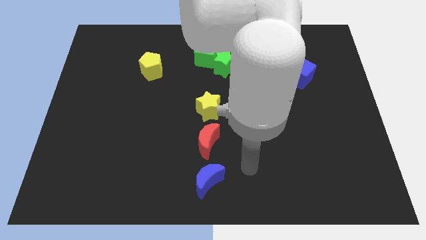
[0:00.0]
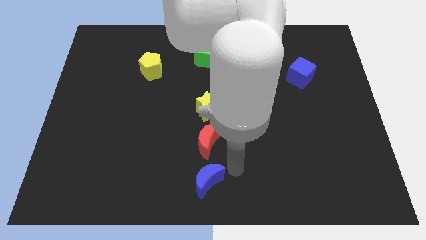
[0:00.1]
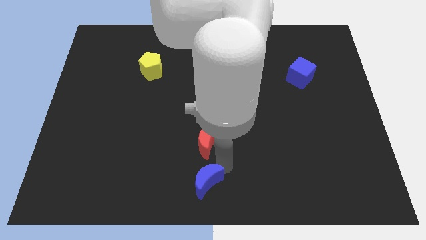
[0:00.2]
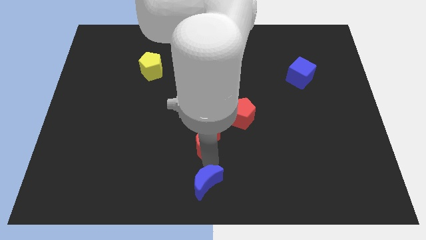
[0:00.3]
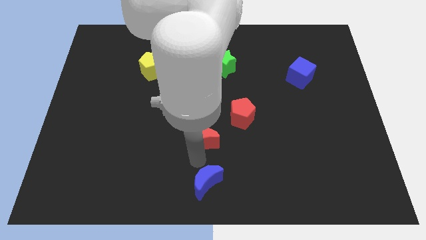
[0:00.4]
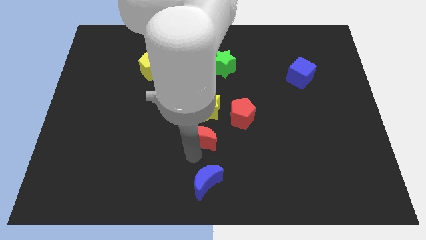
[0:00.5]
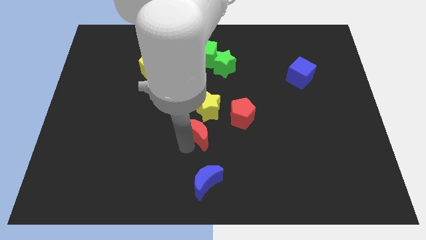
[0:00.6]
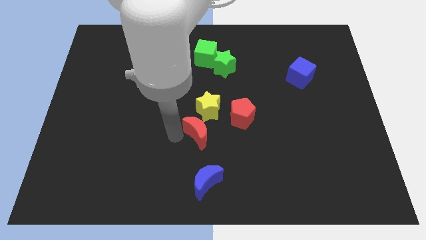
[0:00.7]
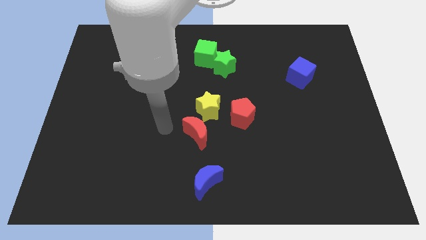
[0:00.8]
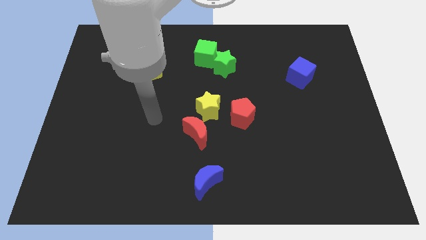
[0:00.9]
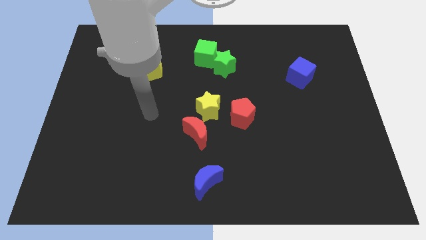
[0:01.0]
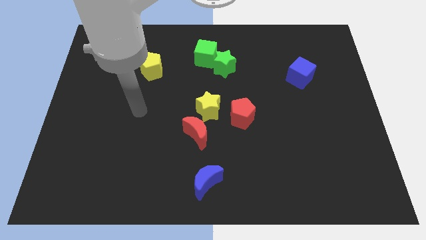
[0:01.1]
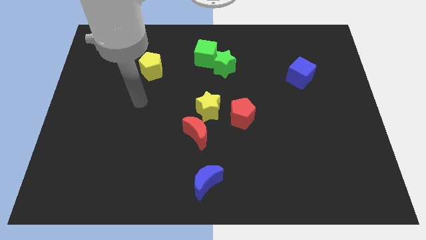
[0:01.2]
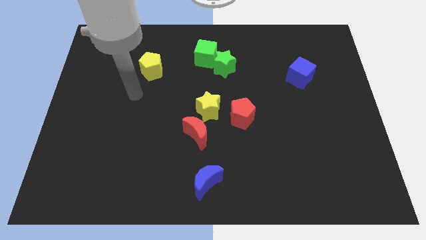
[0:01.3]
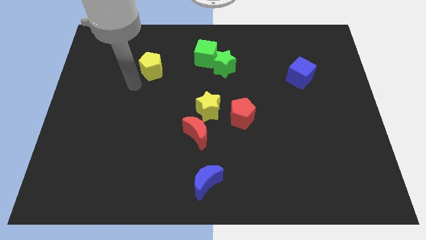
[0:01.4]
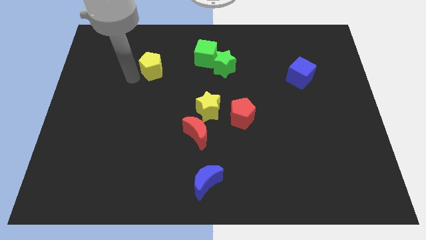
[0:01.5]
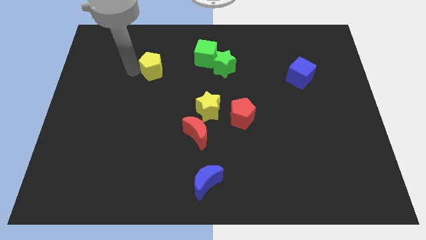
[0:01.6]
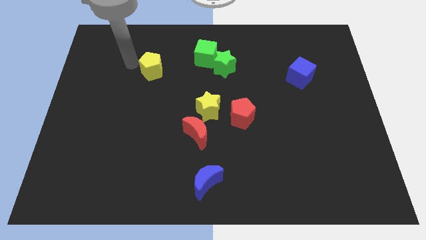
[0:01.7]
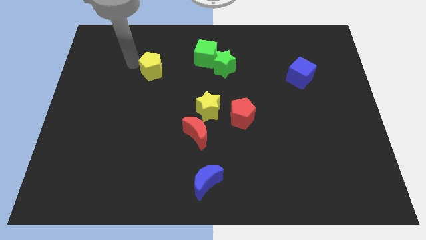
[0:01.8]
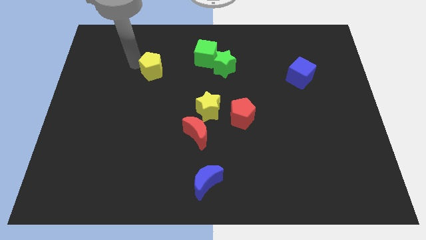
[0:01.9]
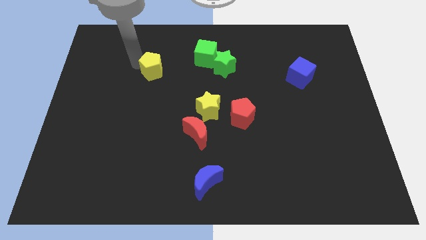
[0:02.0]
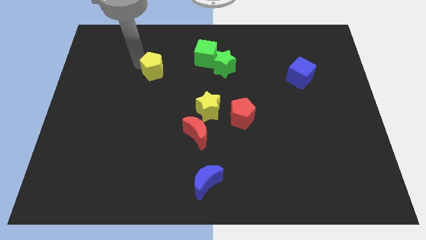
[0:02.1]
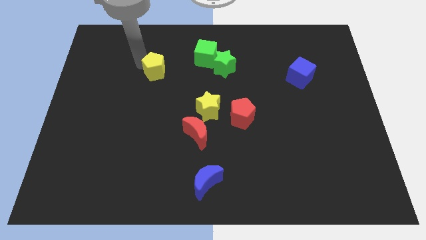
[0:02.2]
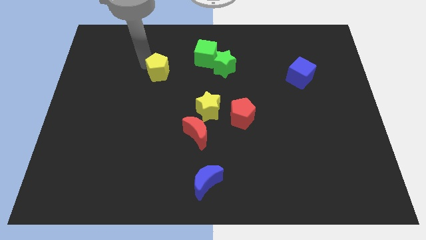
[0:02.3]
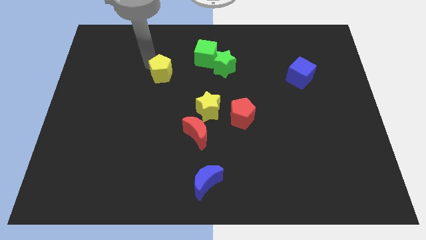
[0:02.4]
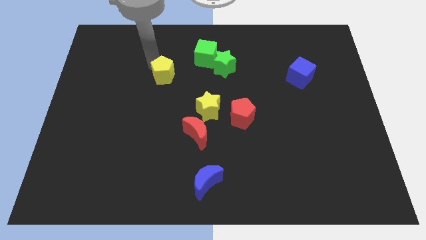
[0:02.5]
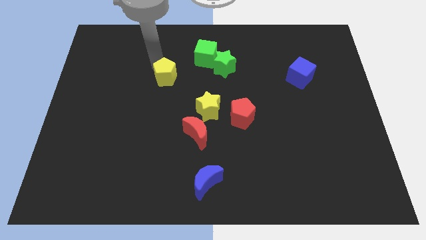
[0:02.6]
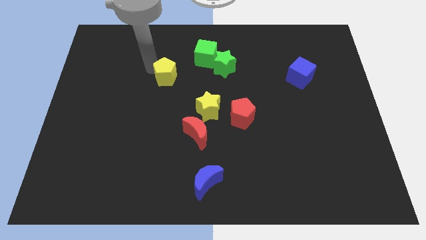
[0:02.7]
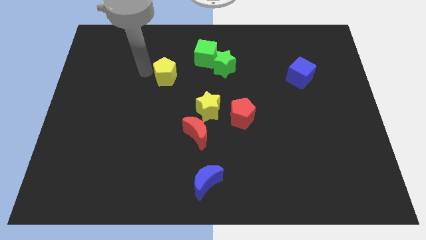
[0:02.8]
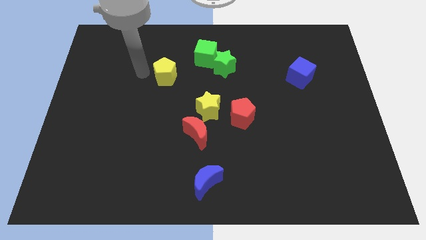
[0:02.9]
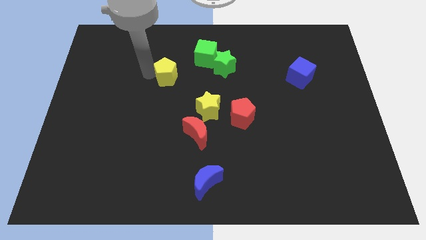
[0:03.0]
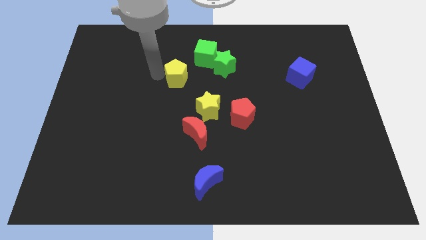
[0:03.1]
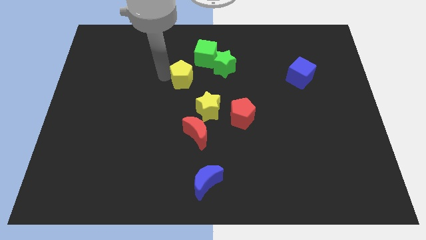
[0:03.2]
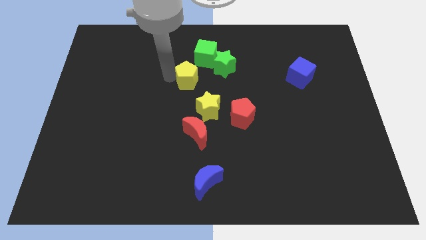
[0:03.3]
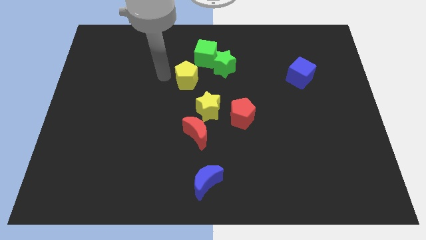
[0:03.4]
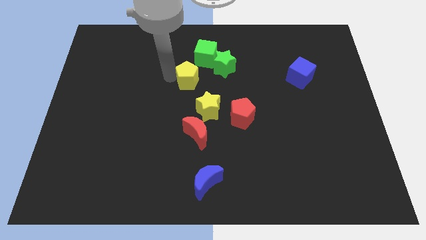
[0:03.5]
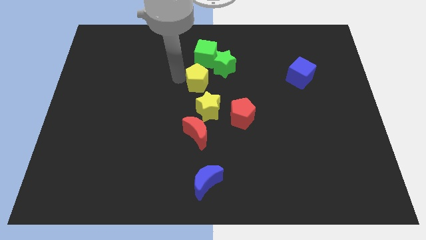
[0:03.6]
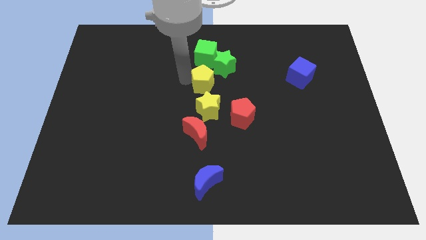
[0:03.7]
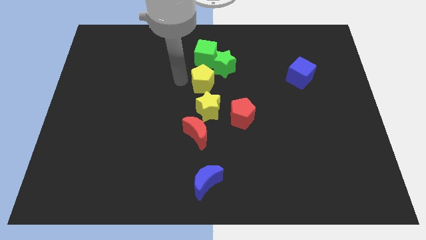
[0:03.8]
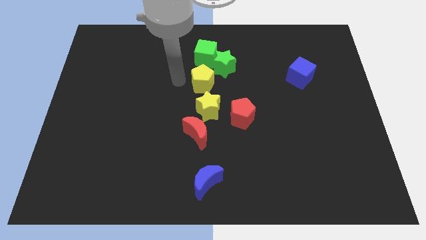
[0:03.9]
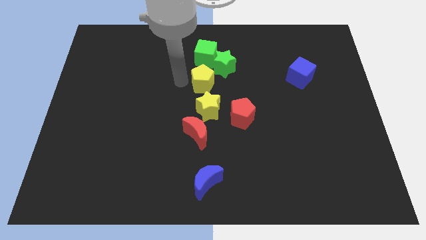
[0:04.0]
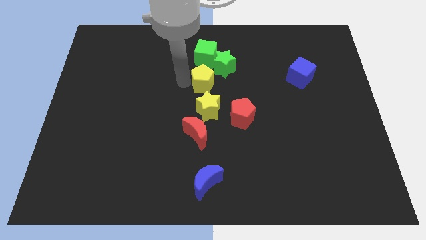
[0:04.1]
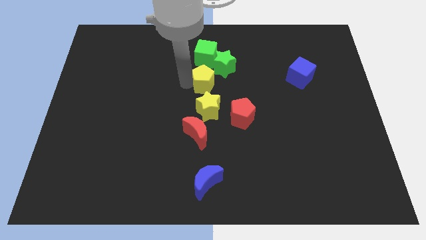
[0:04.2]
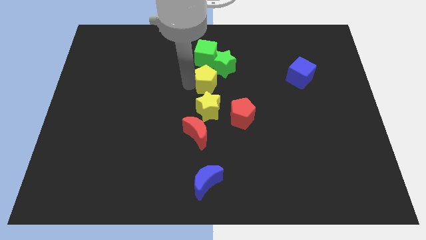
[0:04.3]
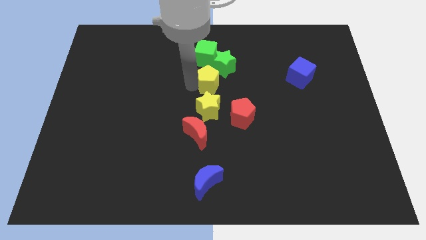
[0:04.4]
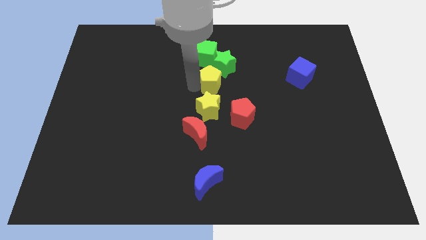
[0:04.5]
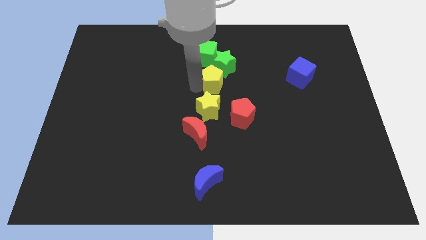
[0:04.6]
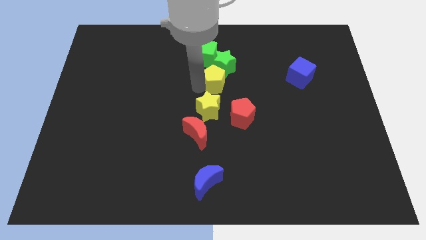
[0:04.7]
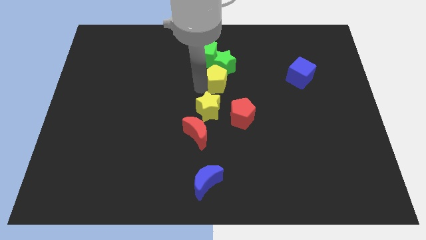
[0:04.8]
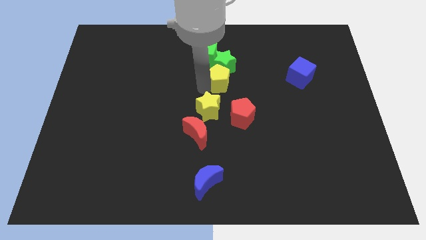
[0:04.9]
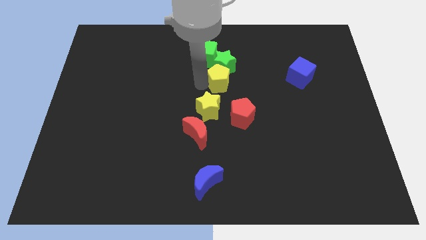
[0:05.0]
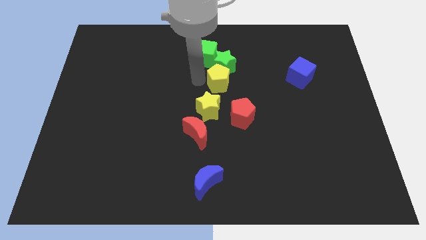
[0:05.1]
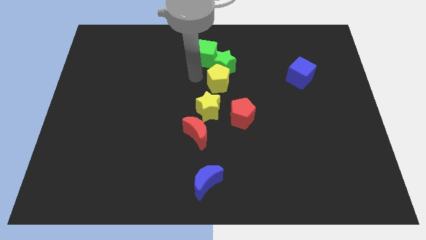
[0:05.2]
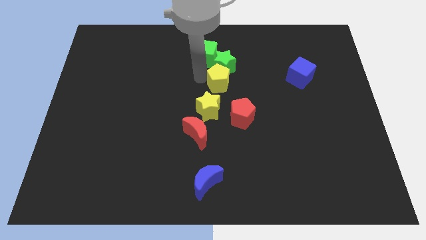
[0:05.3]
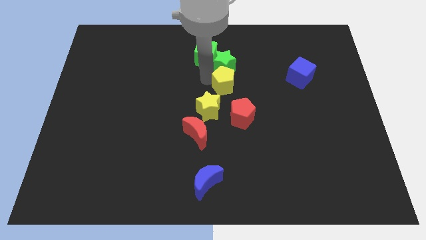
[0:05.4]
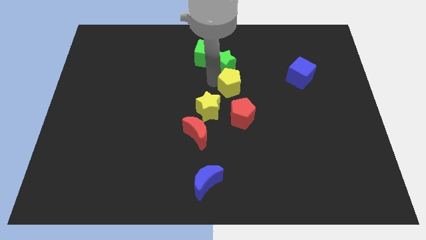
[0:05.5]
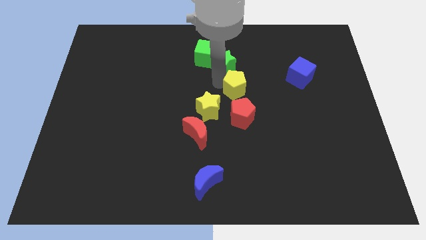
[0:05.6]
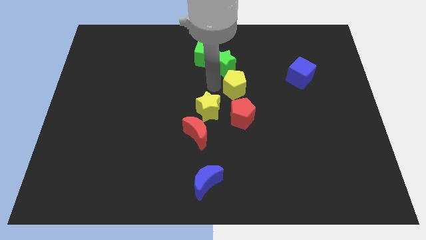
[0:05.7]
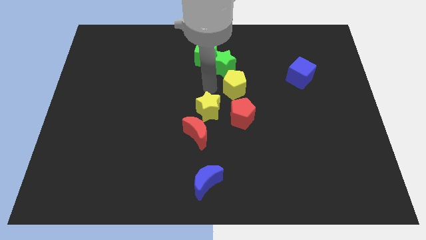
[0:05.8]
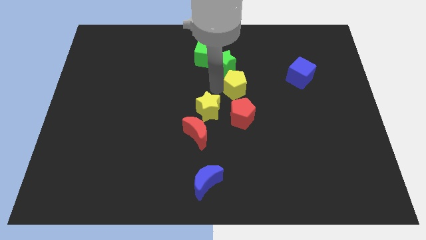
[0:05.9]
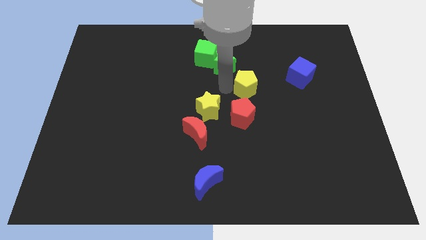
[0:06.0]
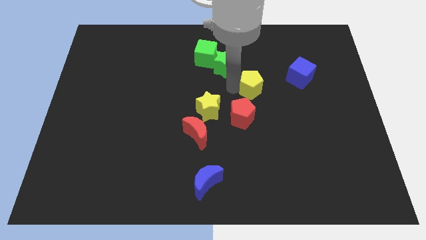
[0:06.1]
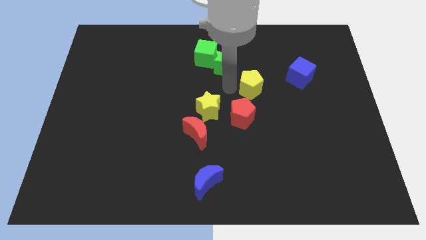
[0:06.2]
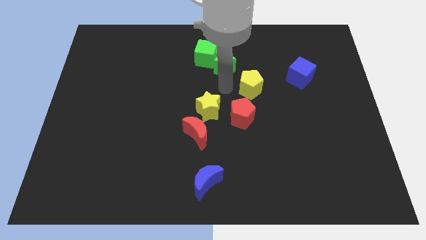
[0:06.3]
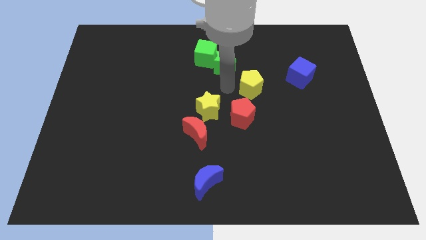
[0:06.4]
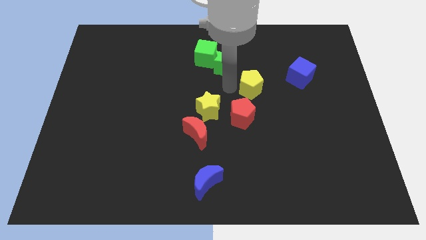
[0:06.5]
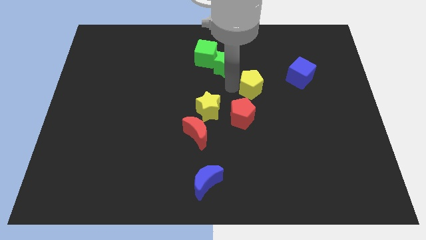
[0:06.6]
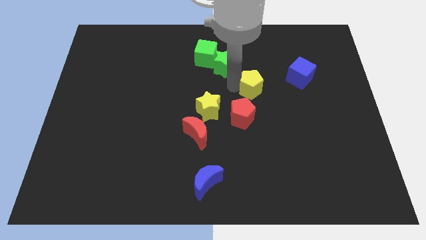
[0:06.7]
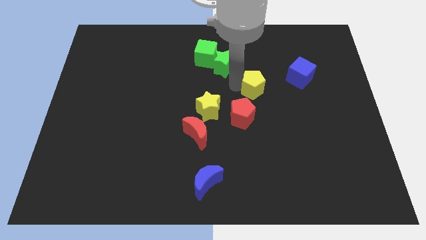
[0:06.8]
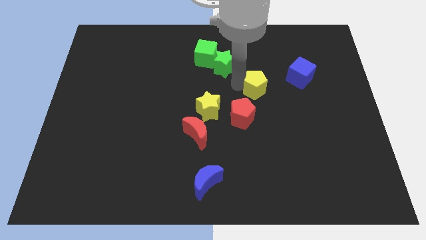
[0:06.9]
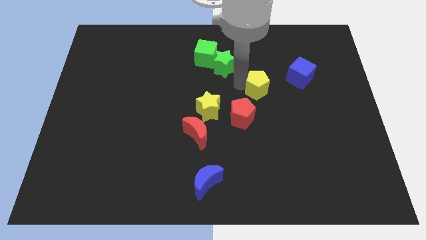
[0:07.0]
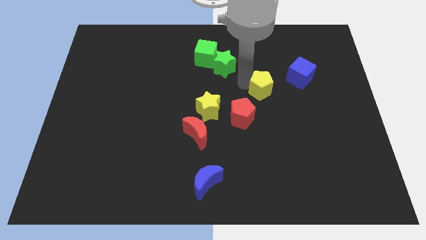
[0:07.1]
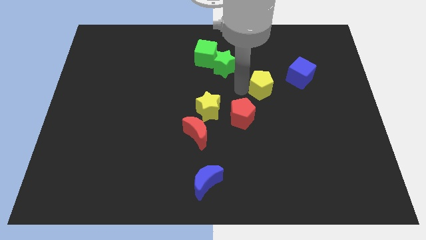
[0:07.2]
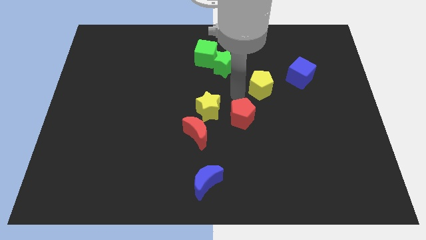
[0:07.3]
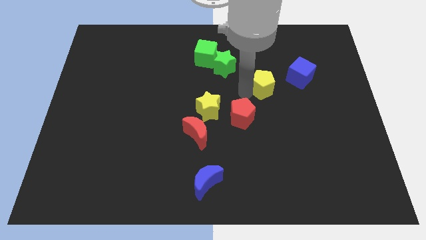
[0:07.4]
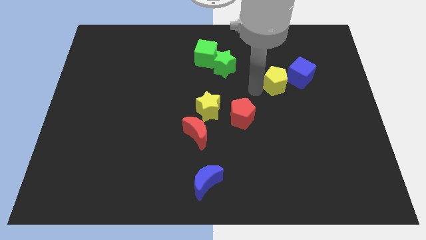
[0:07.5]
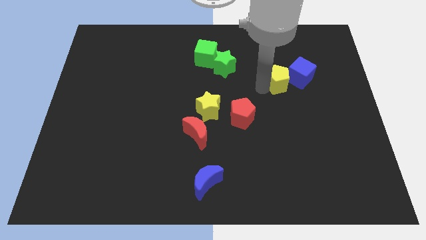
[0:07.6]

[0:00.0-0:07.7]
push the yellow pentagon next to the blue cube
